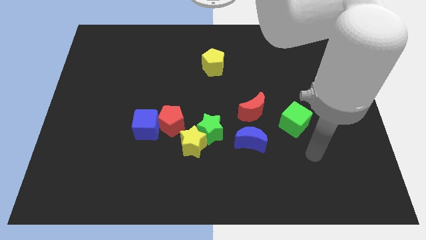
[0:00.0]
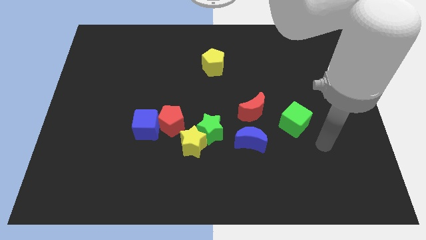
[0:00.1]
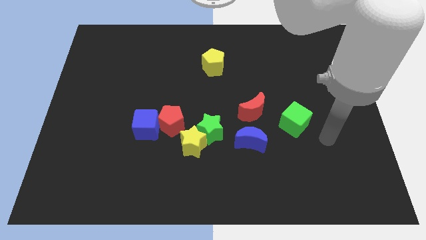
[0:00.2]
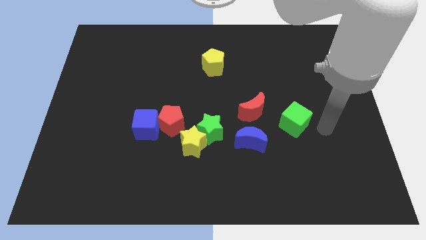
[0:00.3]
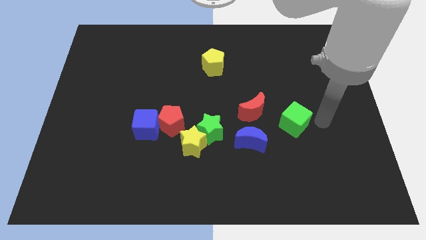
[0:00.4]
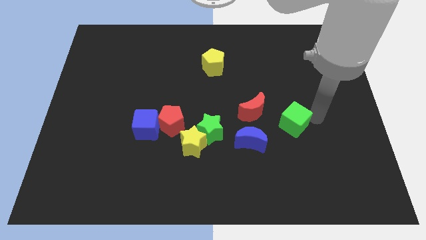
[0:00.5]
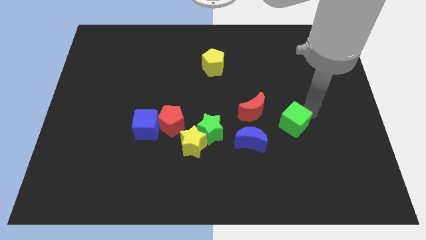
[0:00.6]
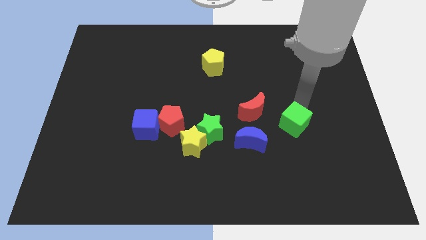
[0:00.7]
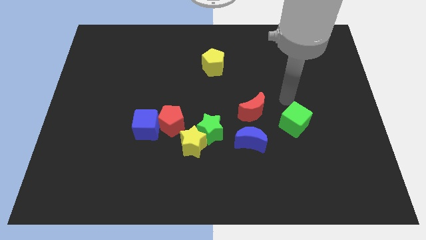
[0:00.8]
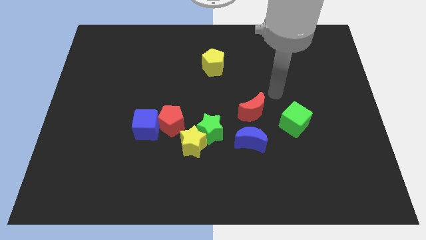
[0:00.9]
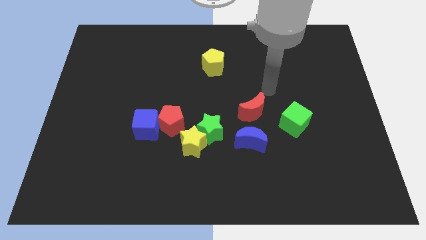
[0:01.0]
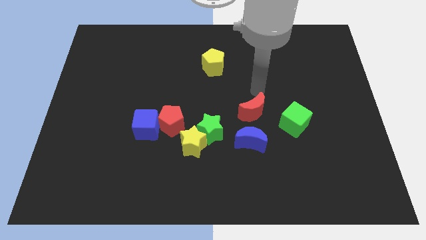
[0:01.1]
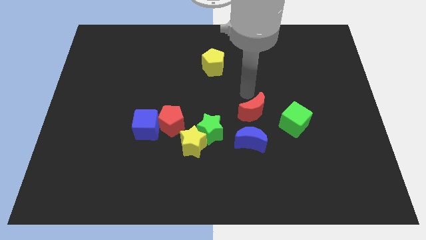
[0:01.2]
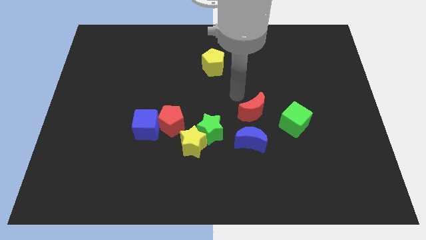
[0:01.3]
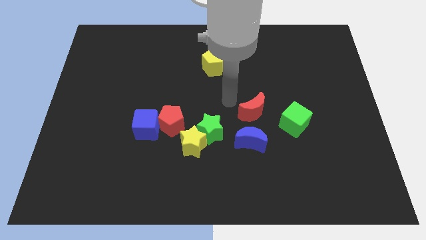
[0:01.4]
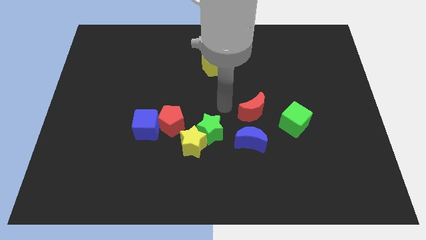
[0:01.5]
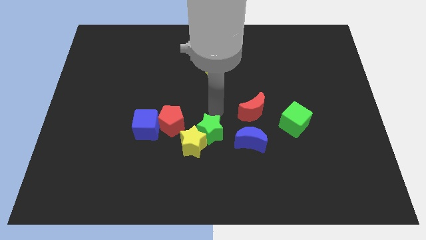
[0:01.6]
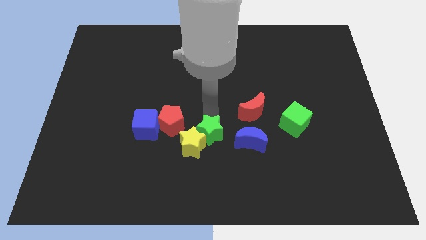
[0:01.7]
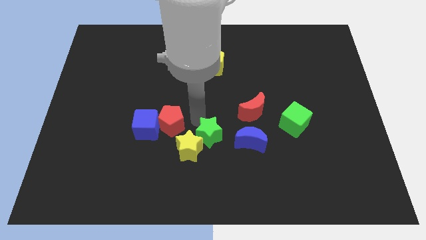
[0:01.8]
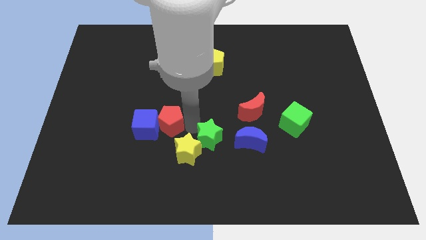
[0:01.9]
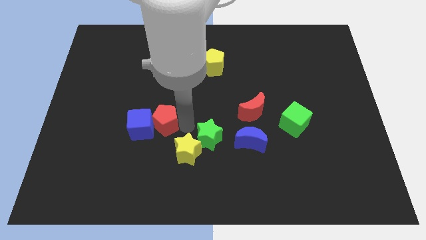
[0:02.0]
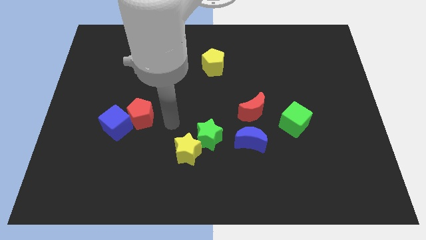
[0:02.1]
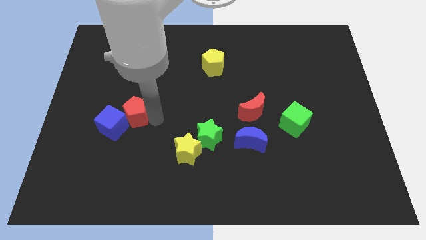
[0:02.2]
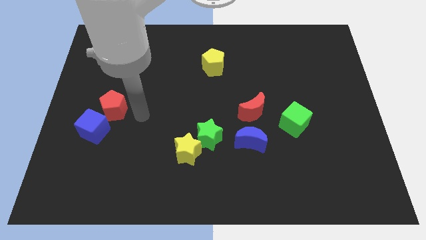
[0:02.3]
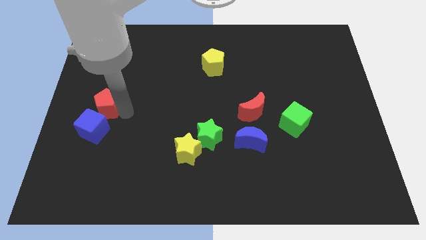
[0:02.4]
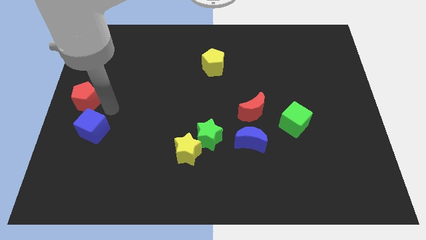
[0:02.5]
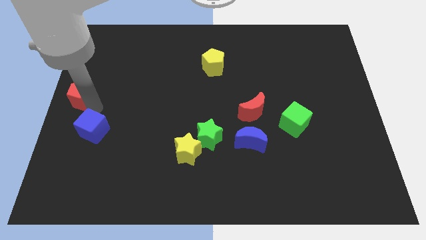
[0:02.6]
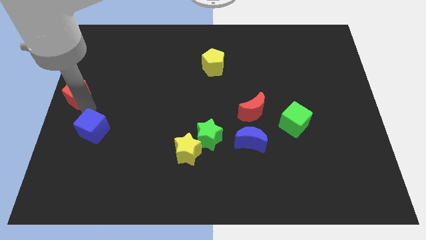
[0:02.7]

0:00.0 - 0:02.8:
pull the blue cube apart from the red pentagon

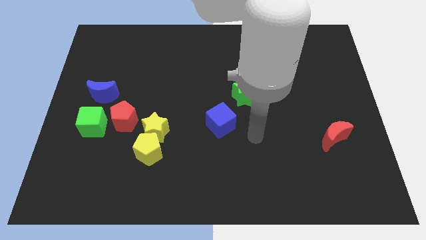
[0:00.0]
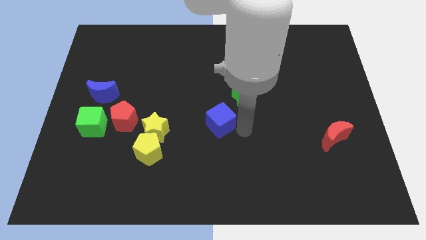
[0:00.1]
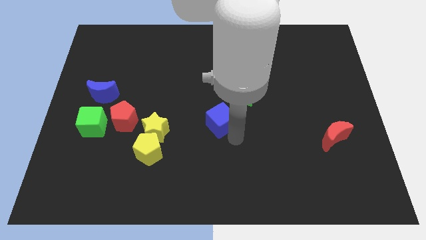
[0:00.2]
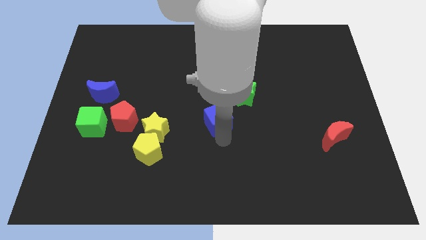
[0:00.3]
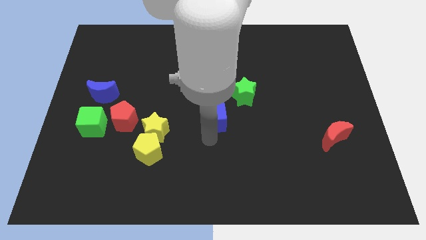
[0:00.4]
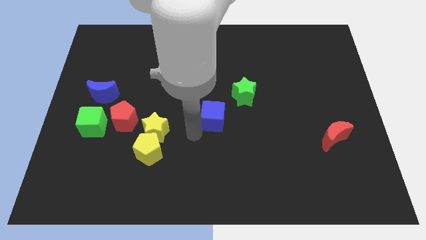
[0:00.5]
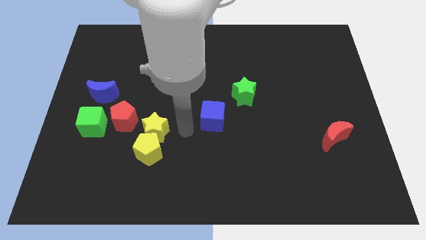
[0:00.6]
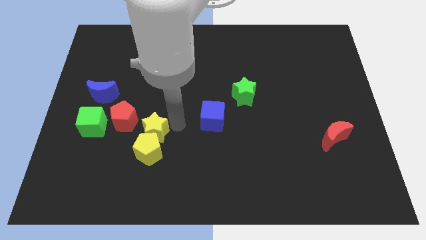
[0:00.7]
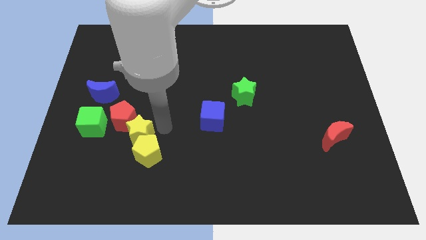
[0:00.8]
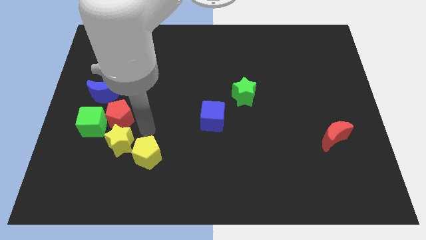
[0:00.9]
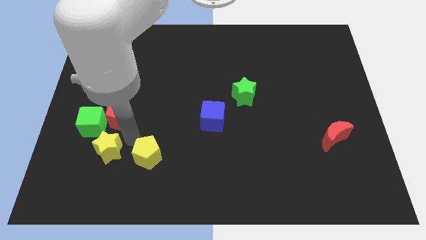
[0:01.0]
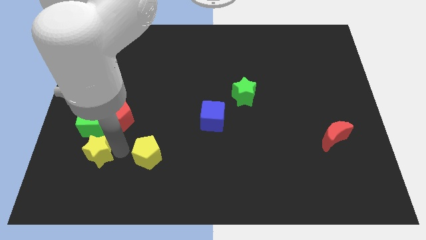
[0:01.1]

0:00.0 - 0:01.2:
pull the yellow pentagon apart from the yellow star

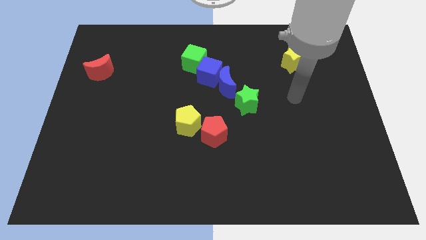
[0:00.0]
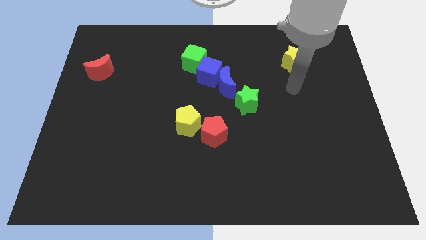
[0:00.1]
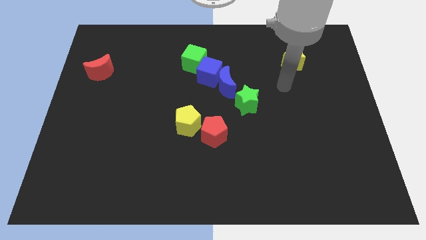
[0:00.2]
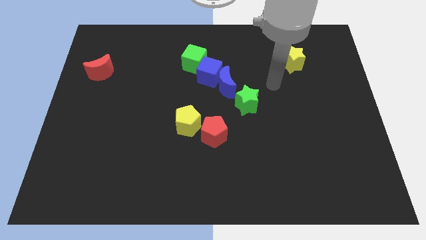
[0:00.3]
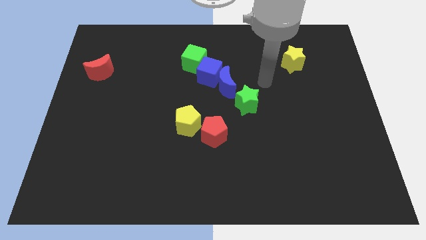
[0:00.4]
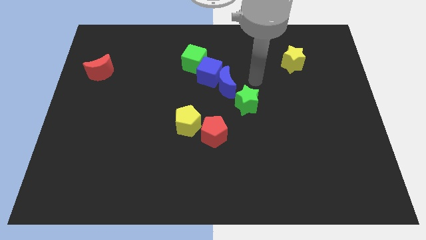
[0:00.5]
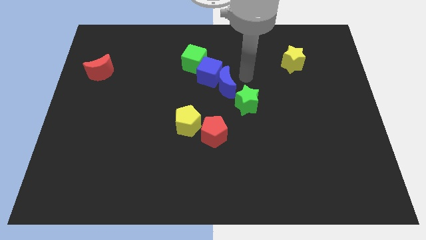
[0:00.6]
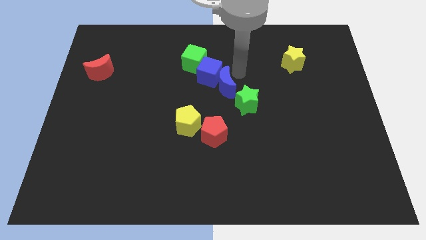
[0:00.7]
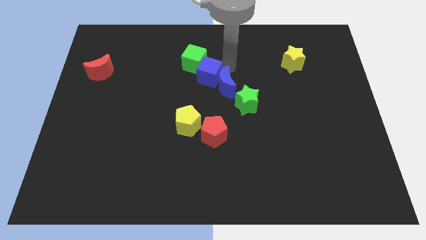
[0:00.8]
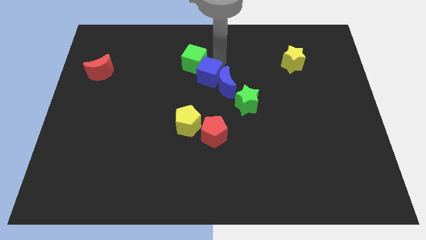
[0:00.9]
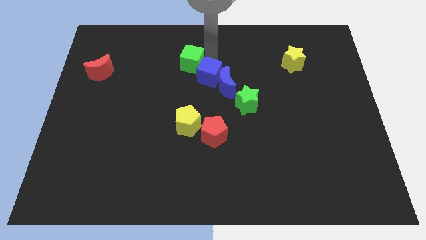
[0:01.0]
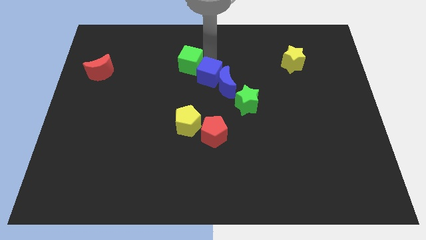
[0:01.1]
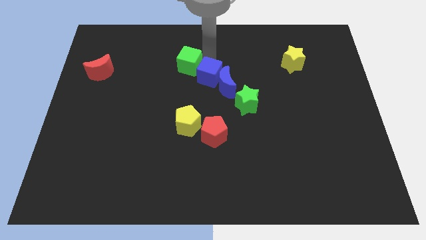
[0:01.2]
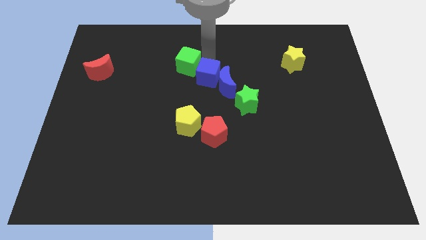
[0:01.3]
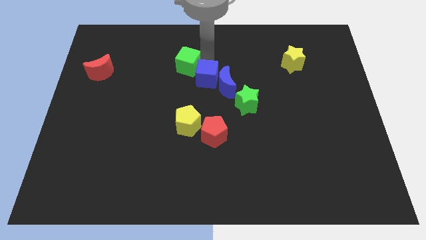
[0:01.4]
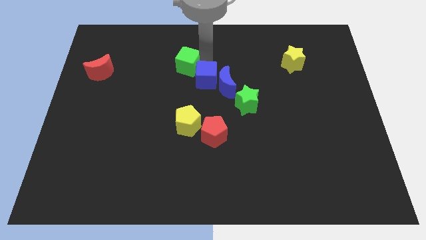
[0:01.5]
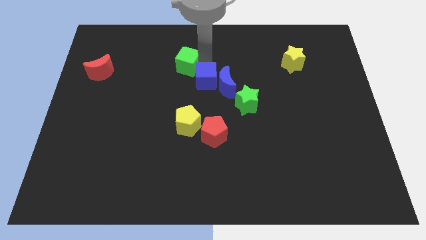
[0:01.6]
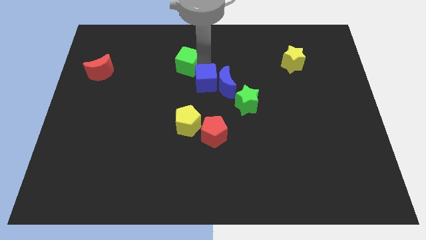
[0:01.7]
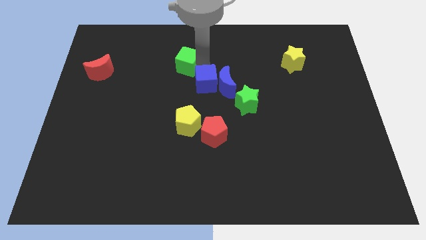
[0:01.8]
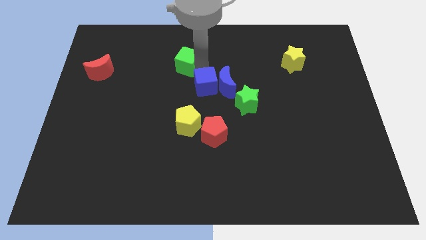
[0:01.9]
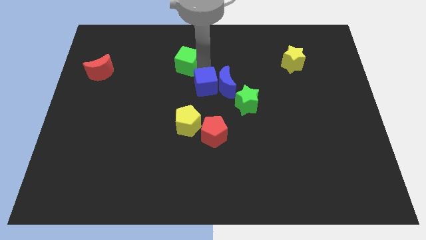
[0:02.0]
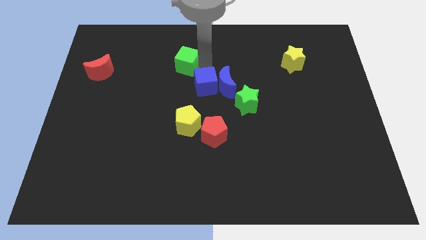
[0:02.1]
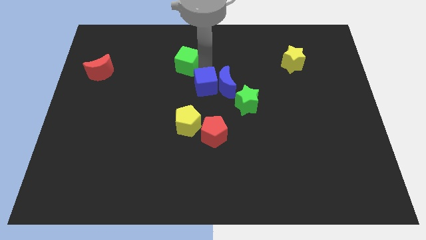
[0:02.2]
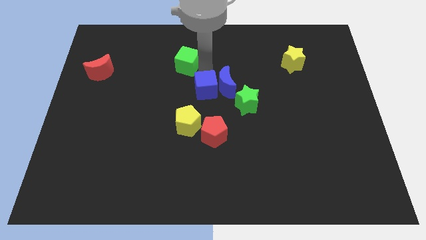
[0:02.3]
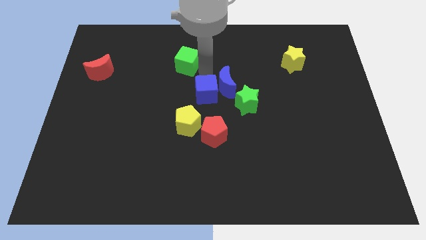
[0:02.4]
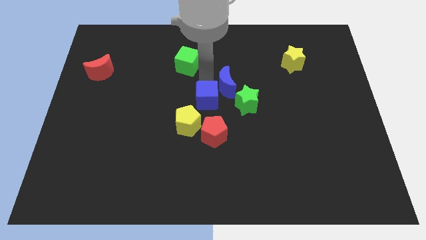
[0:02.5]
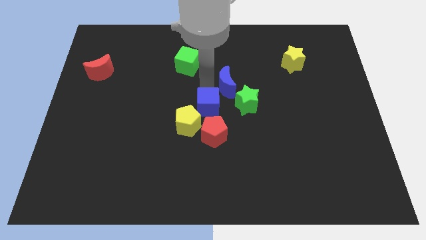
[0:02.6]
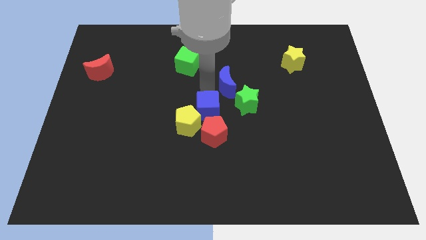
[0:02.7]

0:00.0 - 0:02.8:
separate the blue cube from the blue moon and green cube

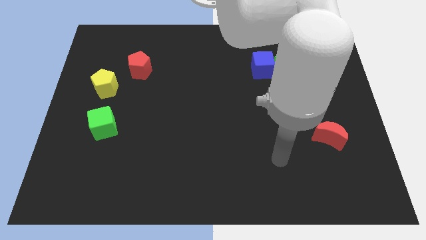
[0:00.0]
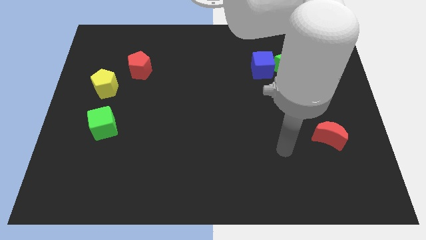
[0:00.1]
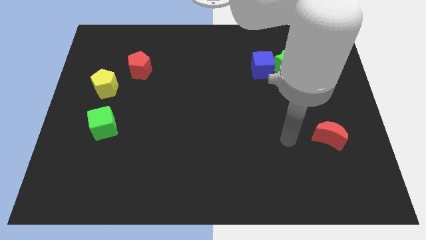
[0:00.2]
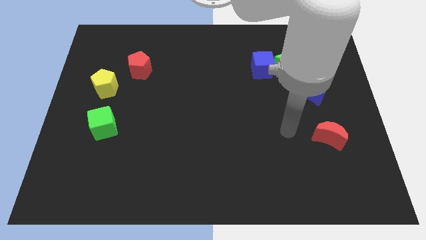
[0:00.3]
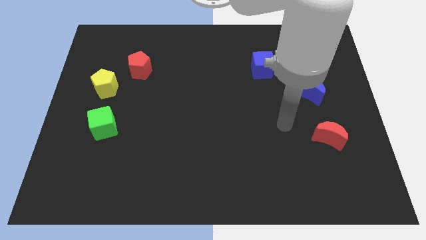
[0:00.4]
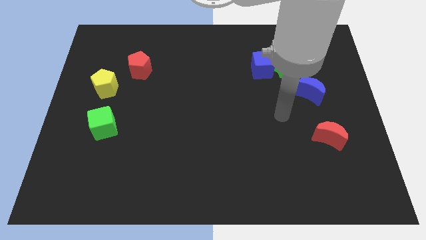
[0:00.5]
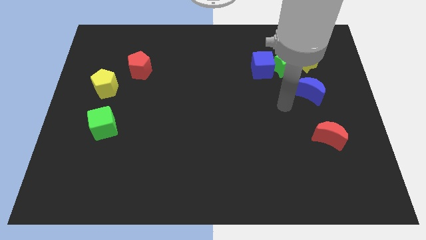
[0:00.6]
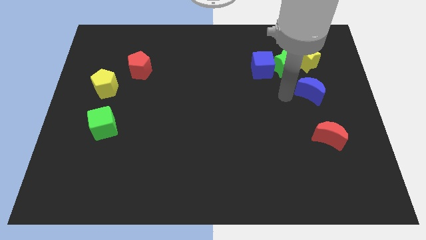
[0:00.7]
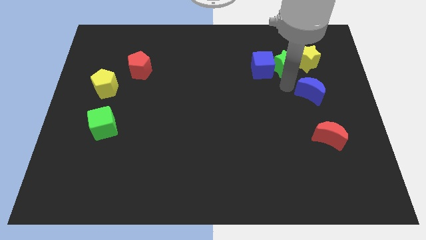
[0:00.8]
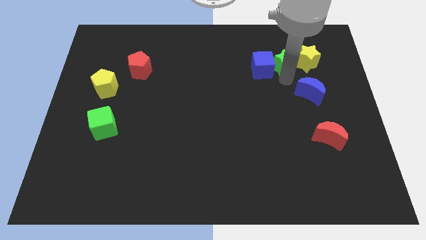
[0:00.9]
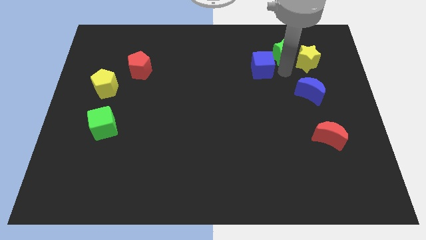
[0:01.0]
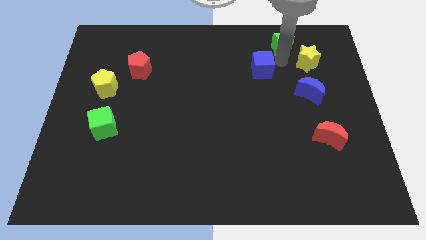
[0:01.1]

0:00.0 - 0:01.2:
pull the blue cube apart from the green star

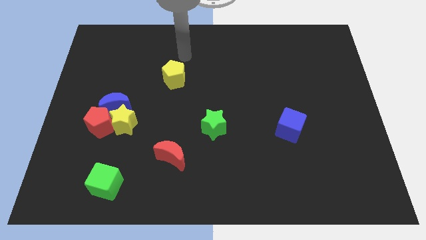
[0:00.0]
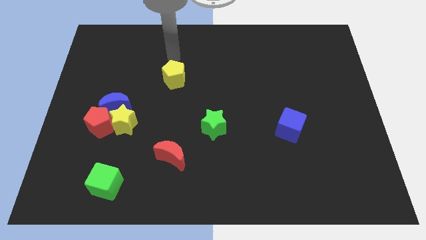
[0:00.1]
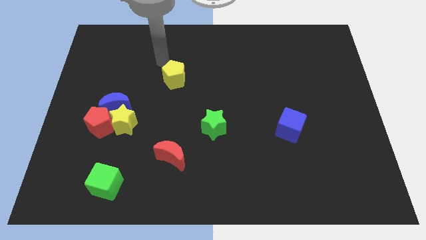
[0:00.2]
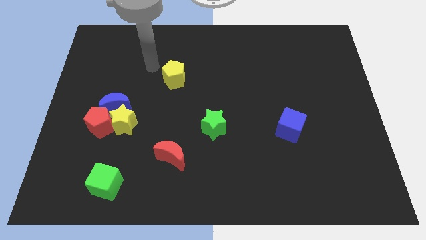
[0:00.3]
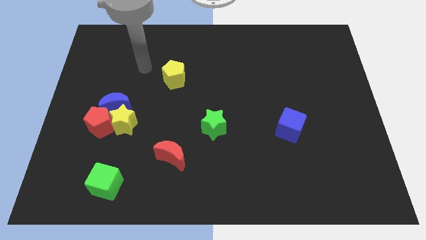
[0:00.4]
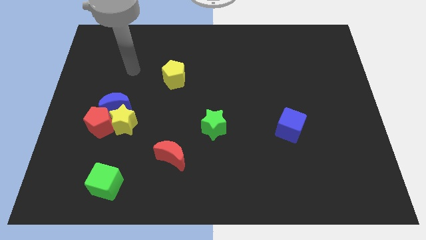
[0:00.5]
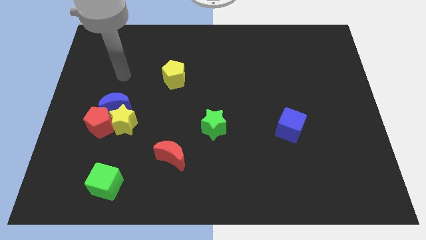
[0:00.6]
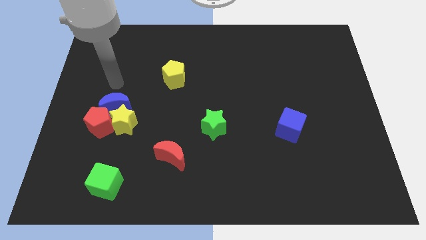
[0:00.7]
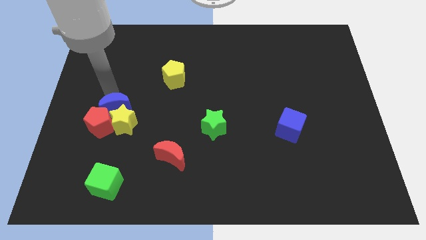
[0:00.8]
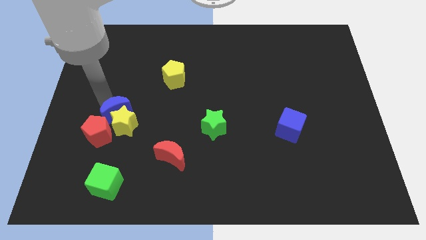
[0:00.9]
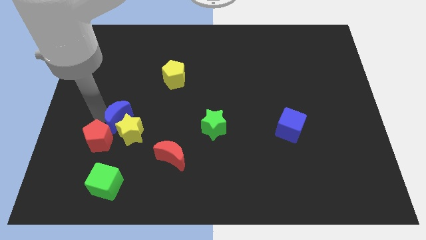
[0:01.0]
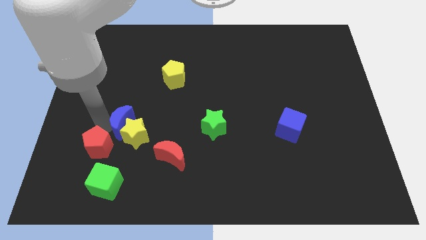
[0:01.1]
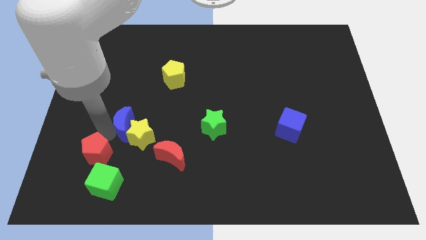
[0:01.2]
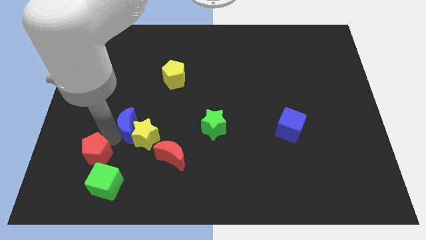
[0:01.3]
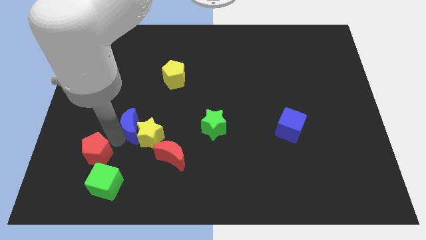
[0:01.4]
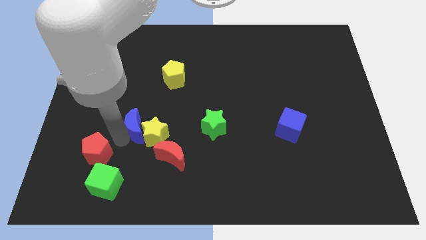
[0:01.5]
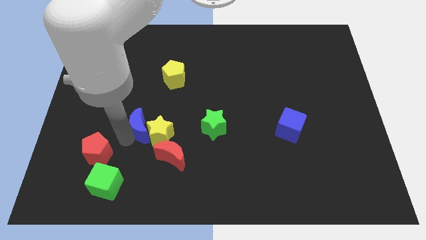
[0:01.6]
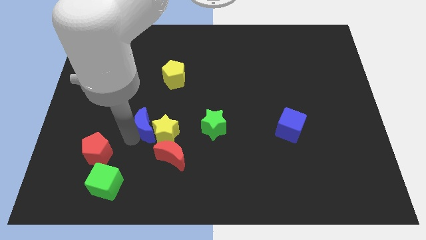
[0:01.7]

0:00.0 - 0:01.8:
move the yellow star away from the blue moon and red pentagon
